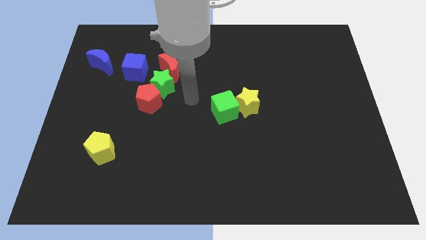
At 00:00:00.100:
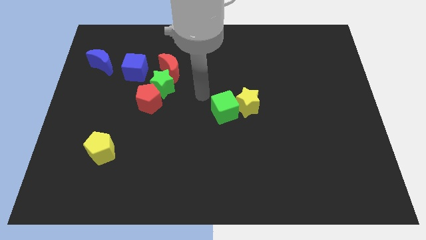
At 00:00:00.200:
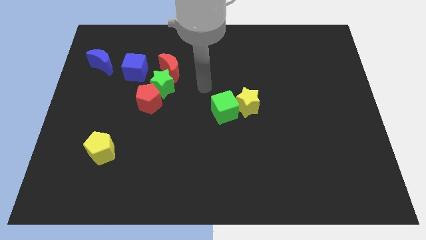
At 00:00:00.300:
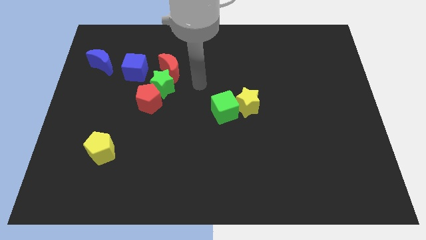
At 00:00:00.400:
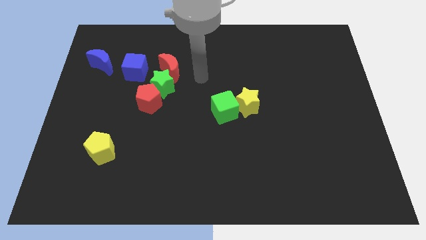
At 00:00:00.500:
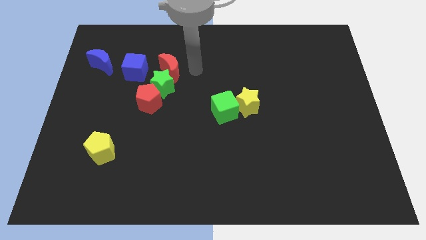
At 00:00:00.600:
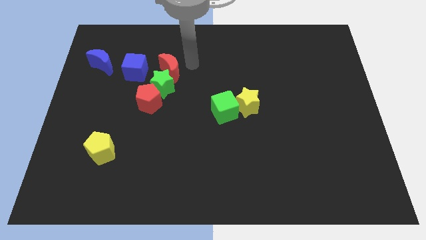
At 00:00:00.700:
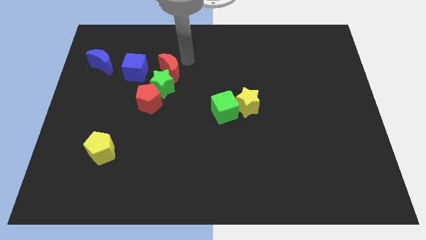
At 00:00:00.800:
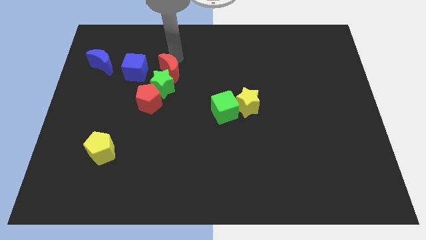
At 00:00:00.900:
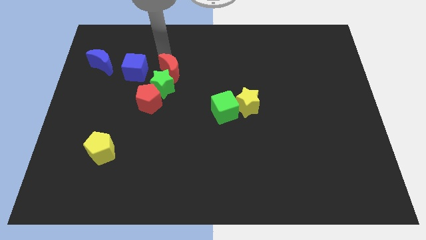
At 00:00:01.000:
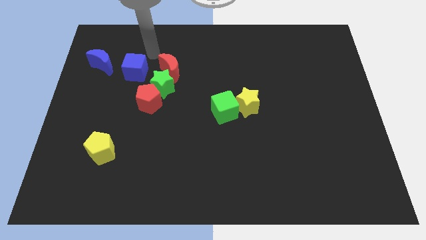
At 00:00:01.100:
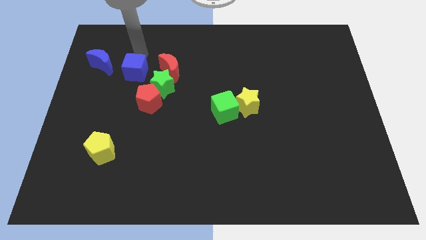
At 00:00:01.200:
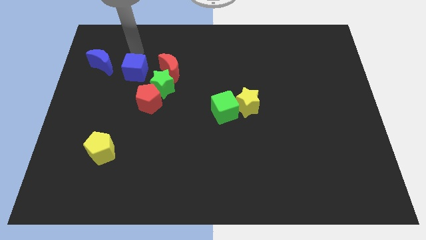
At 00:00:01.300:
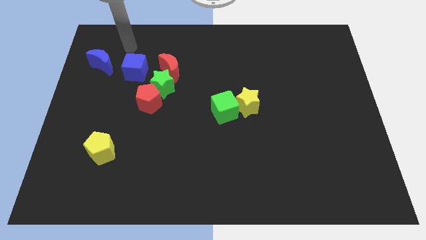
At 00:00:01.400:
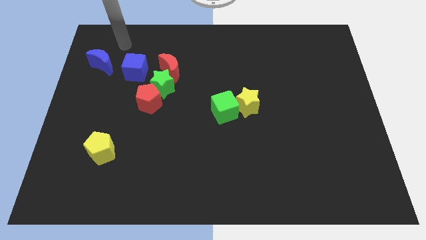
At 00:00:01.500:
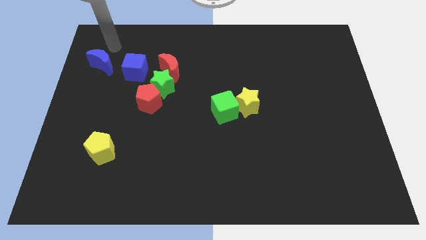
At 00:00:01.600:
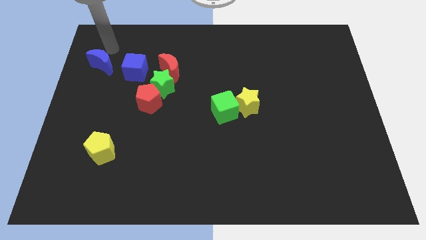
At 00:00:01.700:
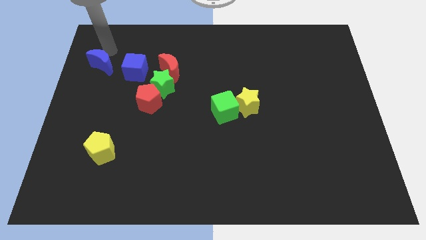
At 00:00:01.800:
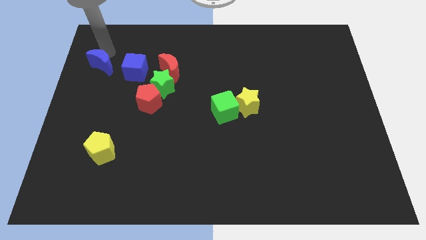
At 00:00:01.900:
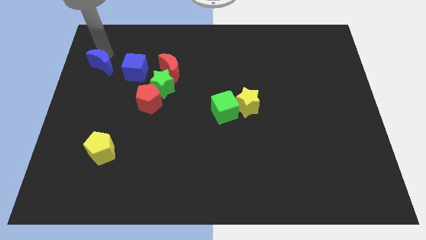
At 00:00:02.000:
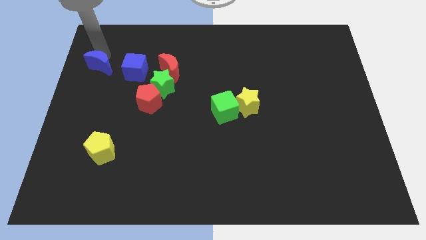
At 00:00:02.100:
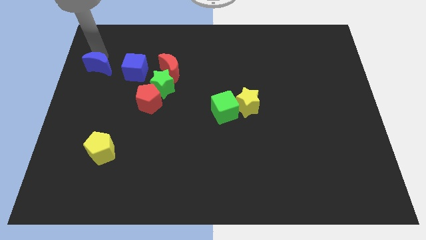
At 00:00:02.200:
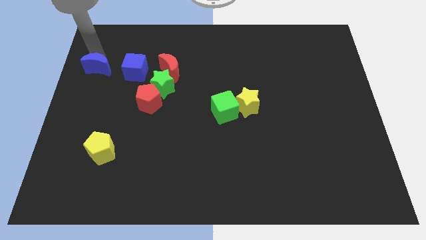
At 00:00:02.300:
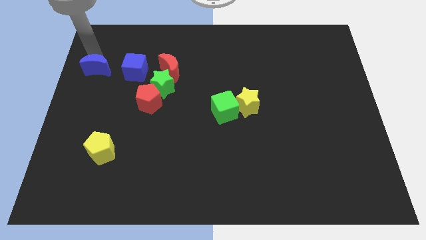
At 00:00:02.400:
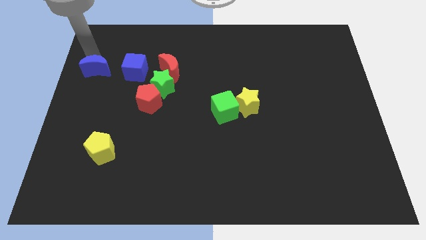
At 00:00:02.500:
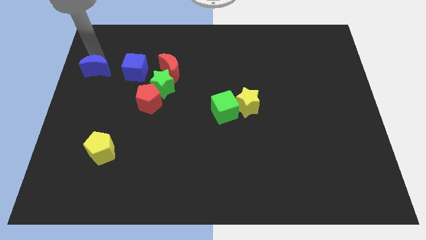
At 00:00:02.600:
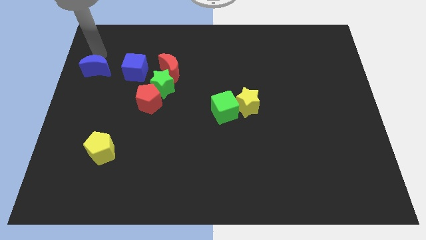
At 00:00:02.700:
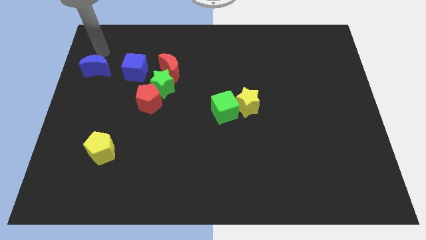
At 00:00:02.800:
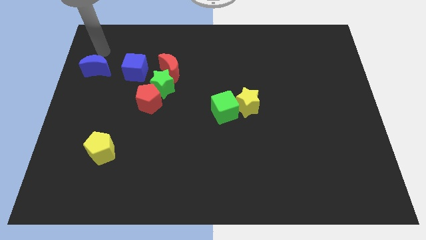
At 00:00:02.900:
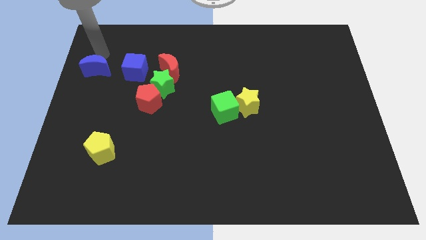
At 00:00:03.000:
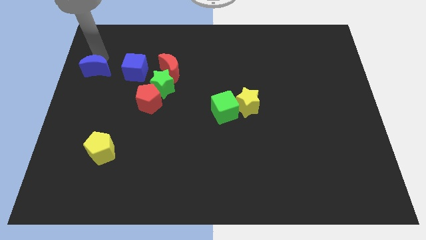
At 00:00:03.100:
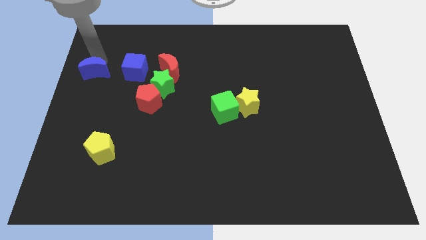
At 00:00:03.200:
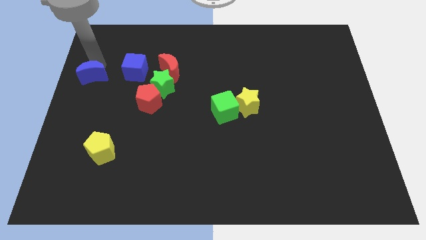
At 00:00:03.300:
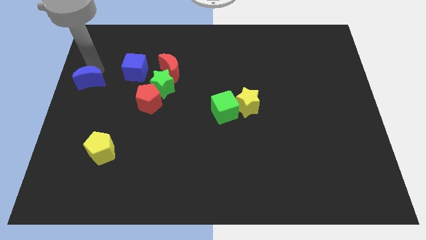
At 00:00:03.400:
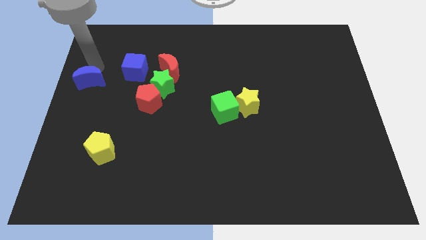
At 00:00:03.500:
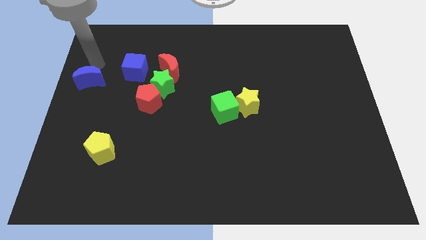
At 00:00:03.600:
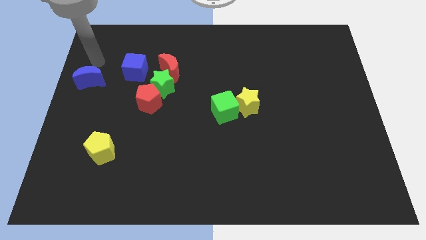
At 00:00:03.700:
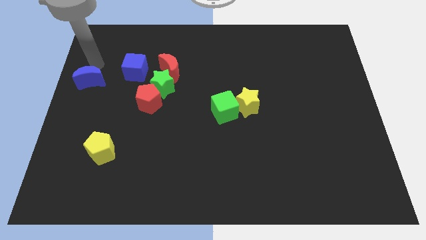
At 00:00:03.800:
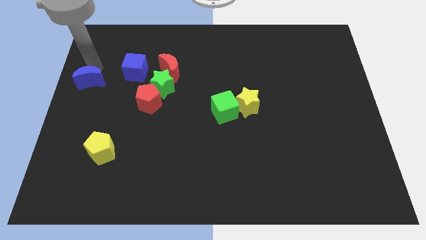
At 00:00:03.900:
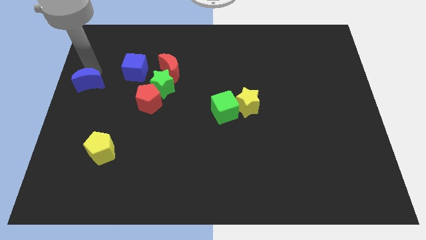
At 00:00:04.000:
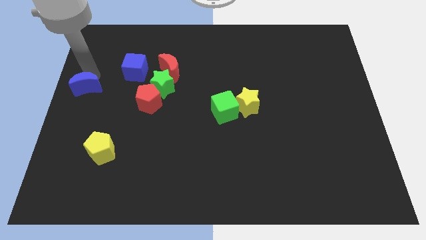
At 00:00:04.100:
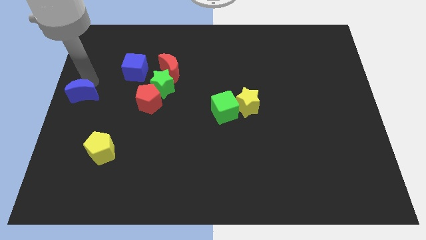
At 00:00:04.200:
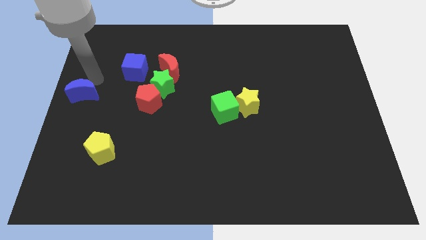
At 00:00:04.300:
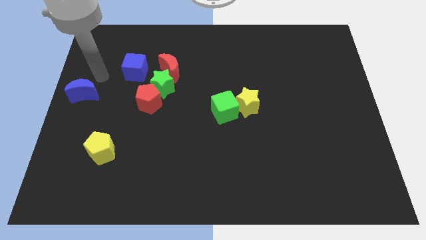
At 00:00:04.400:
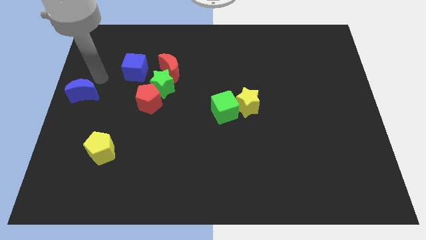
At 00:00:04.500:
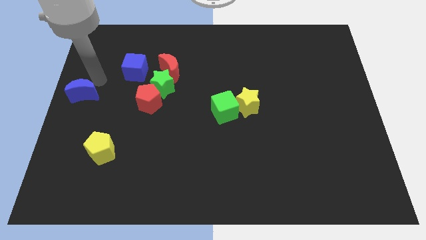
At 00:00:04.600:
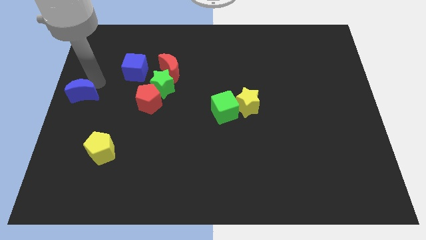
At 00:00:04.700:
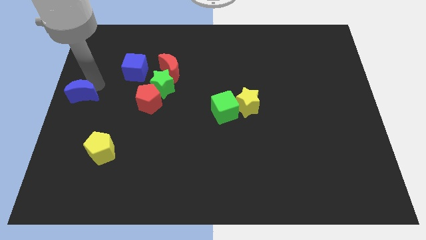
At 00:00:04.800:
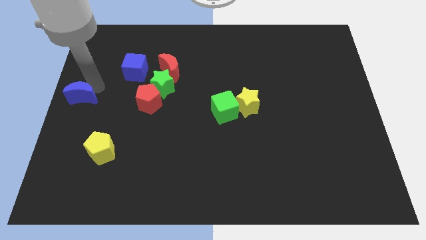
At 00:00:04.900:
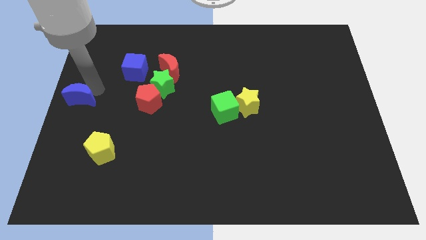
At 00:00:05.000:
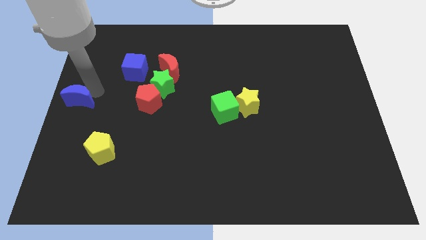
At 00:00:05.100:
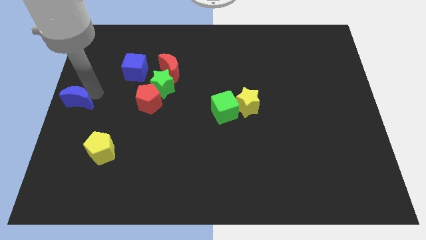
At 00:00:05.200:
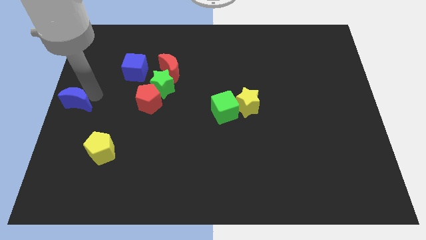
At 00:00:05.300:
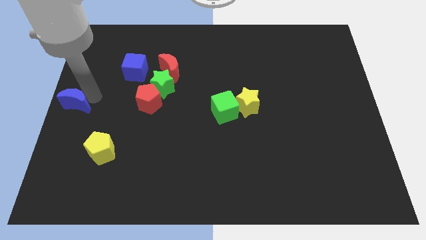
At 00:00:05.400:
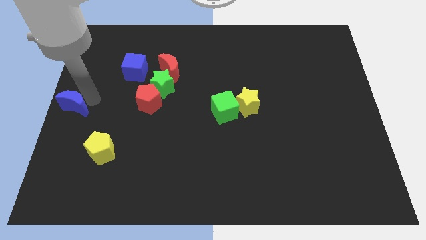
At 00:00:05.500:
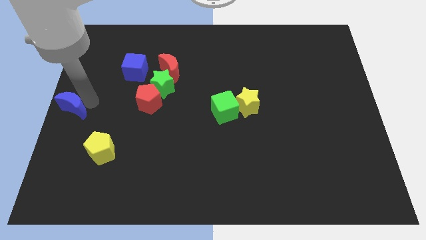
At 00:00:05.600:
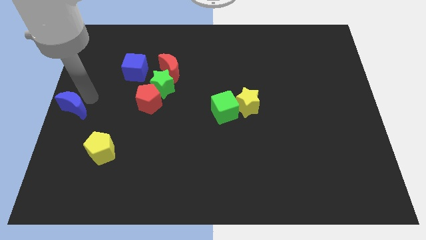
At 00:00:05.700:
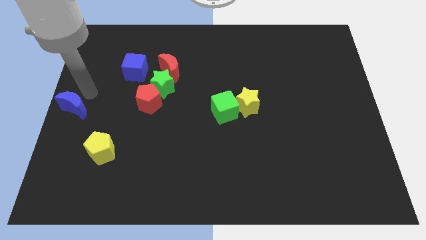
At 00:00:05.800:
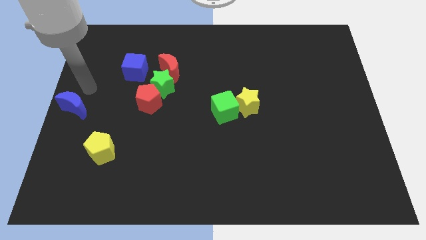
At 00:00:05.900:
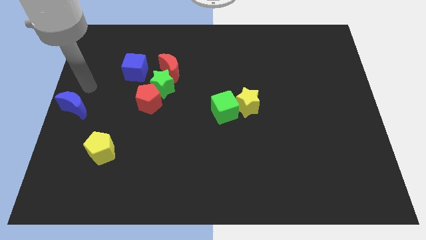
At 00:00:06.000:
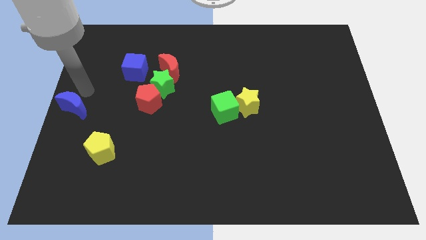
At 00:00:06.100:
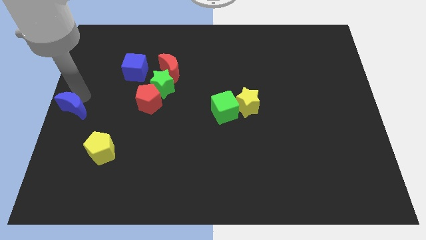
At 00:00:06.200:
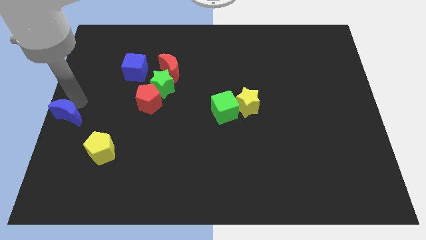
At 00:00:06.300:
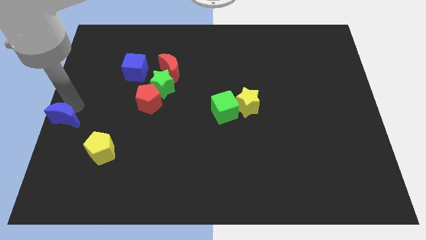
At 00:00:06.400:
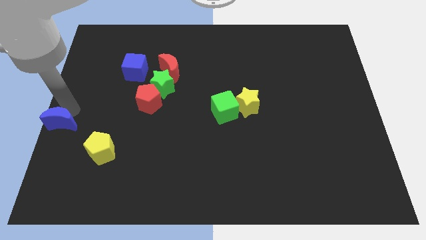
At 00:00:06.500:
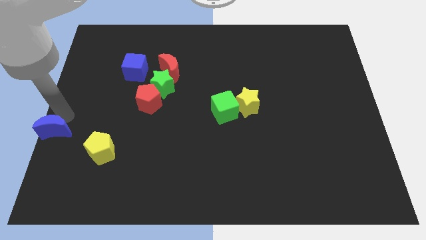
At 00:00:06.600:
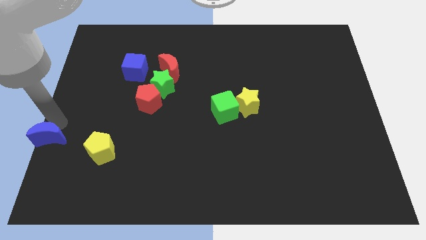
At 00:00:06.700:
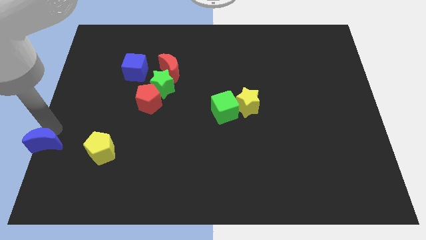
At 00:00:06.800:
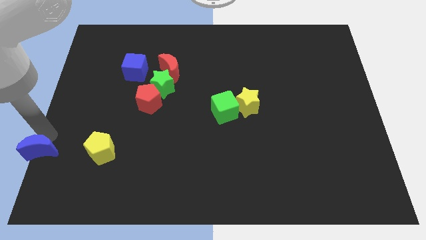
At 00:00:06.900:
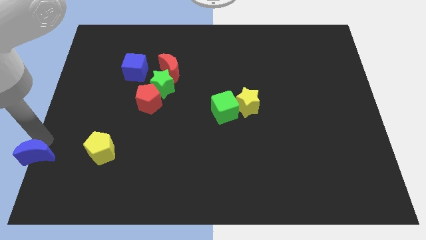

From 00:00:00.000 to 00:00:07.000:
slide the blue moon to the bottom left

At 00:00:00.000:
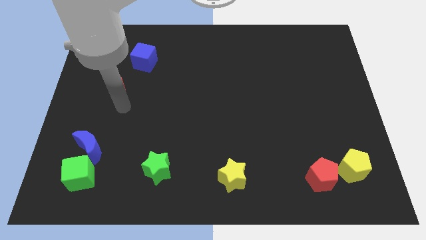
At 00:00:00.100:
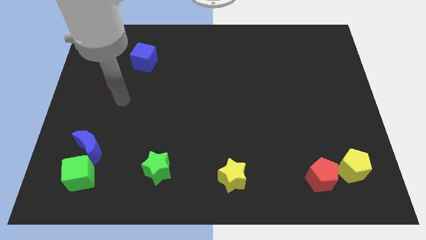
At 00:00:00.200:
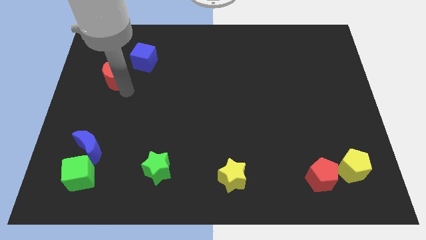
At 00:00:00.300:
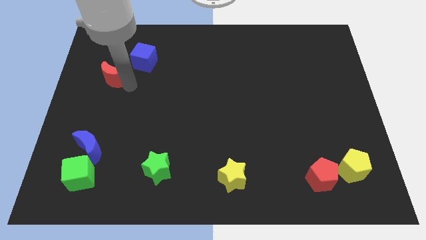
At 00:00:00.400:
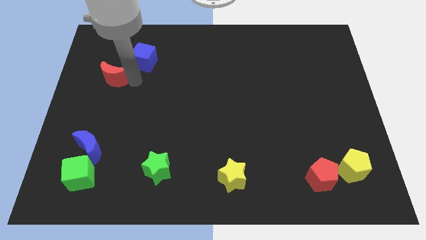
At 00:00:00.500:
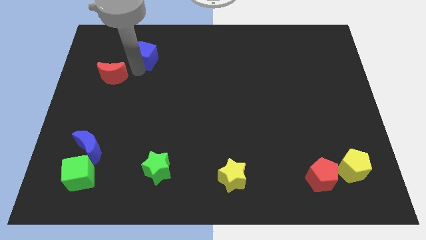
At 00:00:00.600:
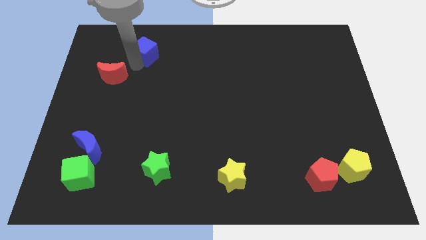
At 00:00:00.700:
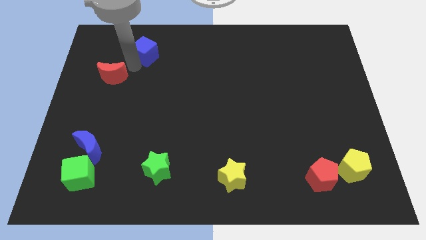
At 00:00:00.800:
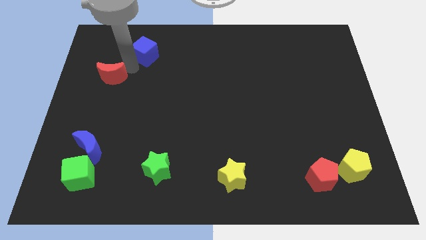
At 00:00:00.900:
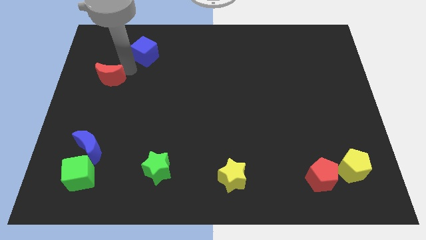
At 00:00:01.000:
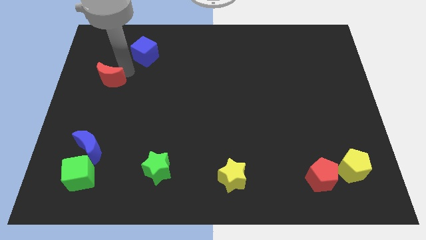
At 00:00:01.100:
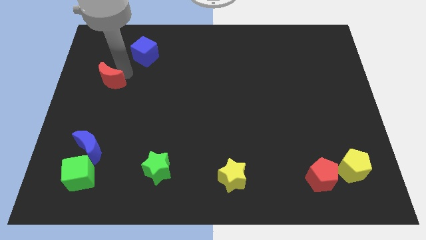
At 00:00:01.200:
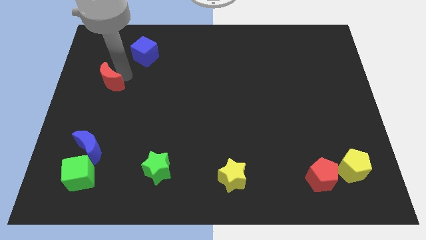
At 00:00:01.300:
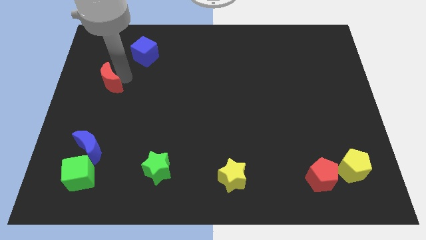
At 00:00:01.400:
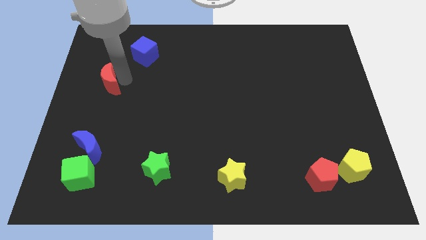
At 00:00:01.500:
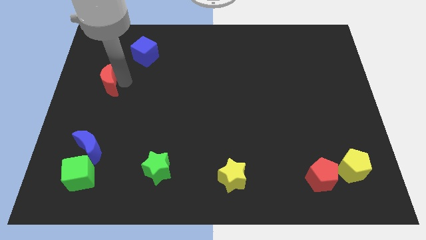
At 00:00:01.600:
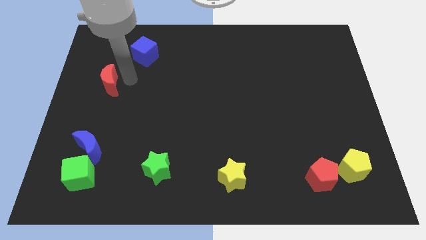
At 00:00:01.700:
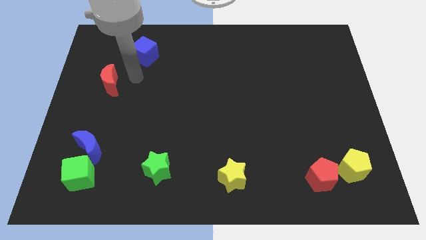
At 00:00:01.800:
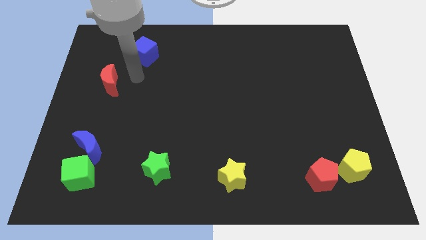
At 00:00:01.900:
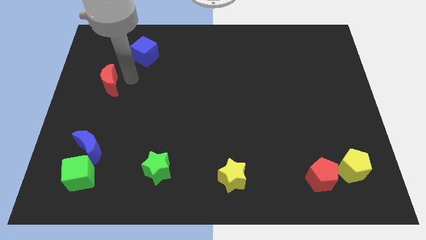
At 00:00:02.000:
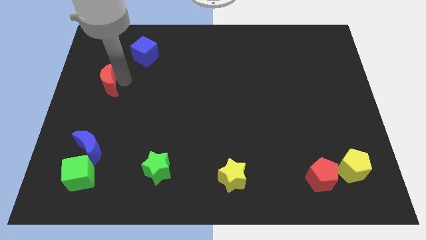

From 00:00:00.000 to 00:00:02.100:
push the red moon to the center left
